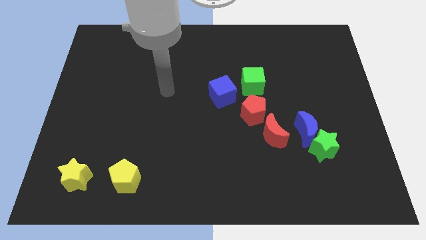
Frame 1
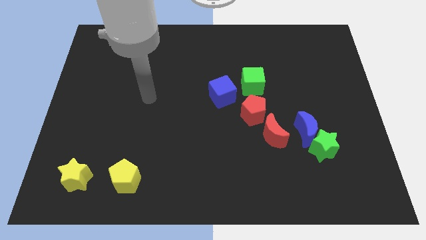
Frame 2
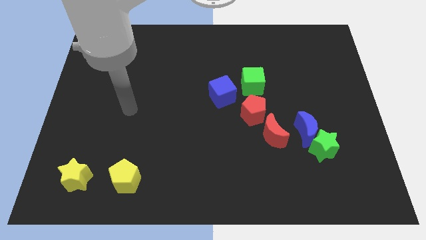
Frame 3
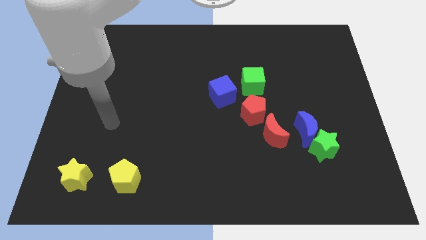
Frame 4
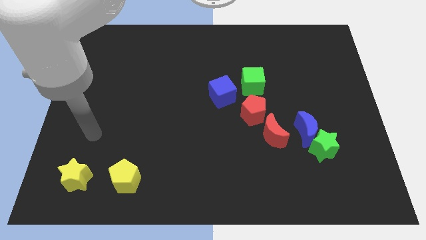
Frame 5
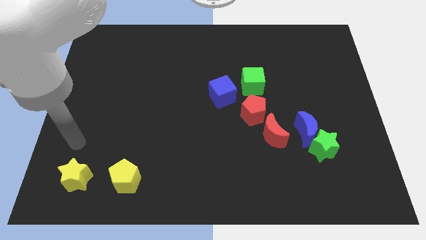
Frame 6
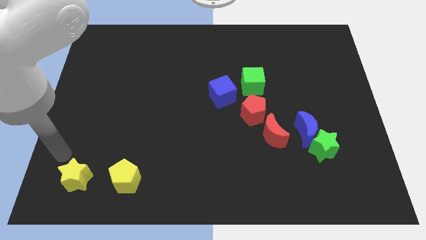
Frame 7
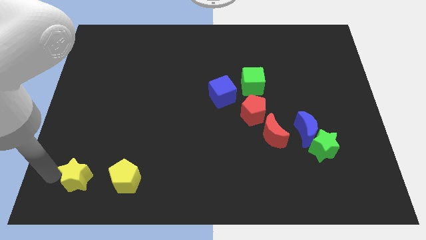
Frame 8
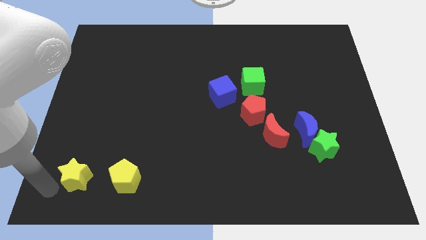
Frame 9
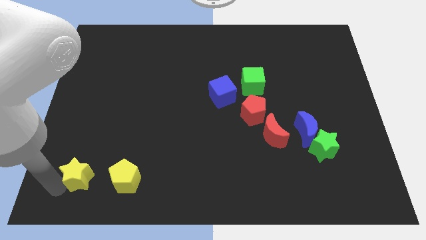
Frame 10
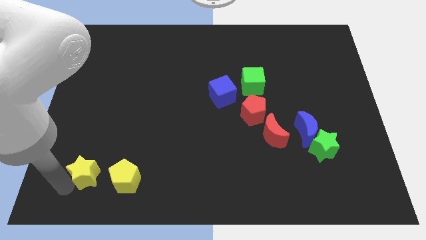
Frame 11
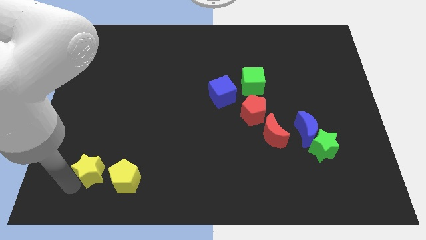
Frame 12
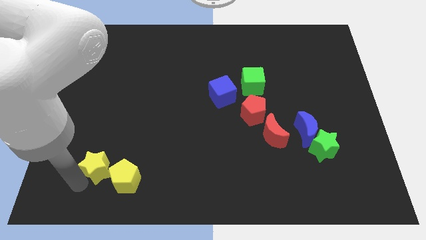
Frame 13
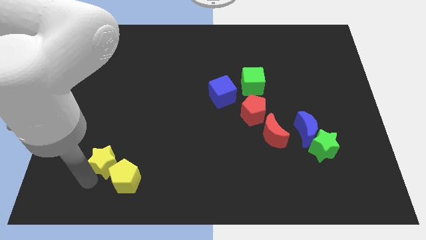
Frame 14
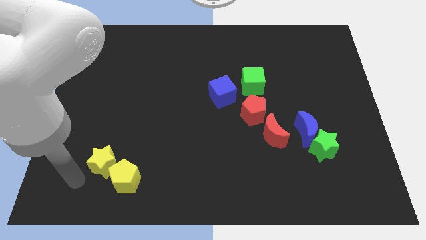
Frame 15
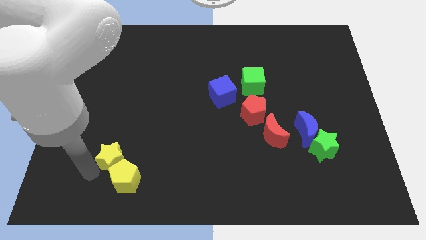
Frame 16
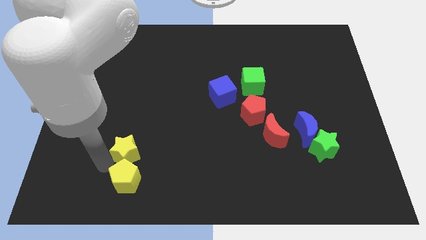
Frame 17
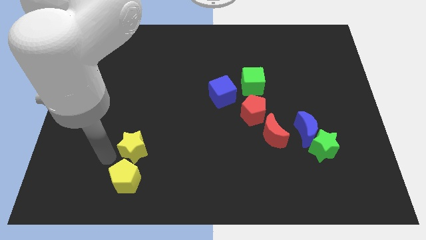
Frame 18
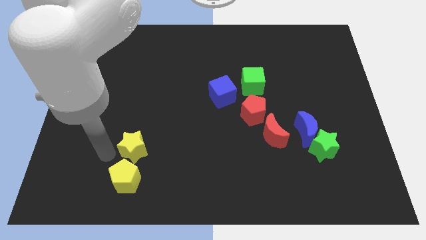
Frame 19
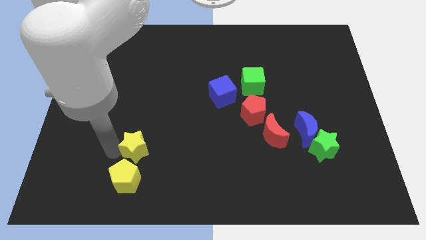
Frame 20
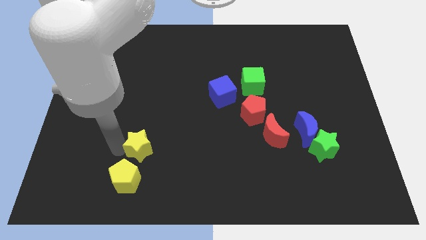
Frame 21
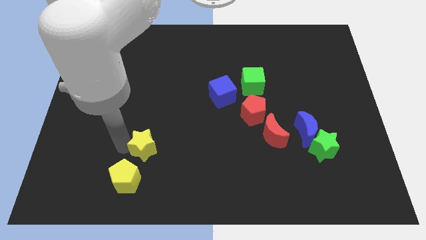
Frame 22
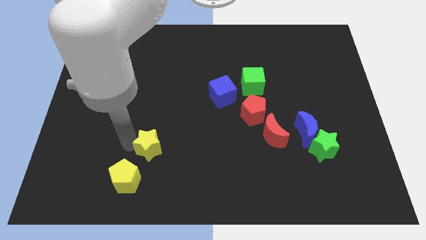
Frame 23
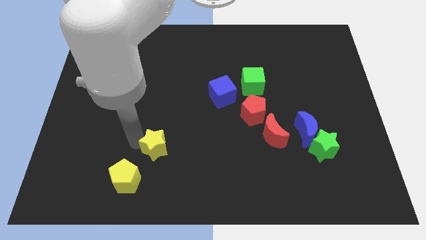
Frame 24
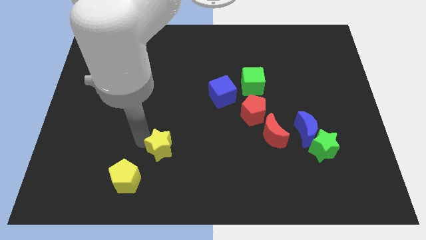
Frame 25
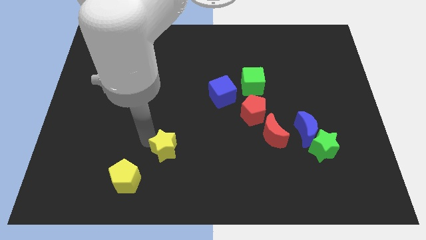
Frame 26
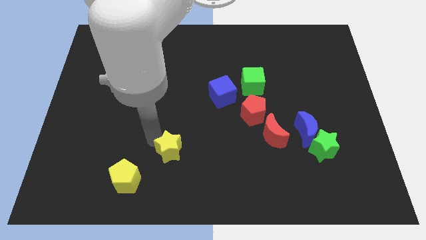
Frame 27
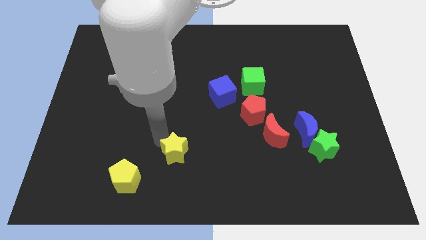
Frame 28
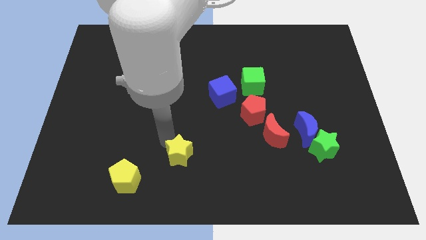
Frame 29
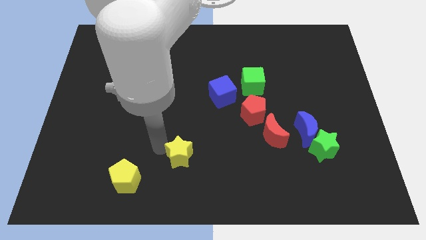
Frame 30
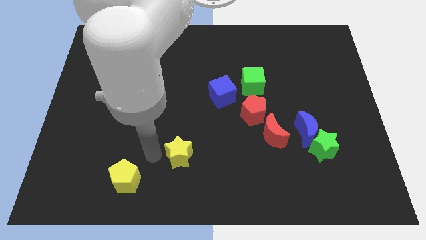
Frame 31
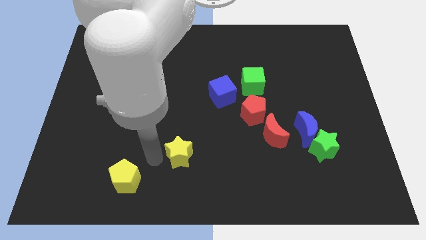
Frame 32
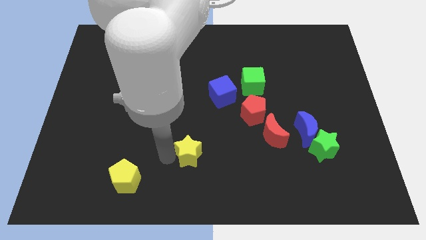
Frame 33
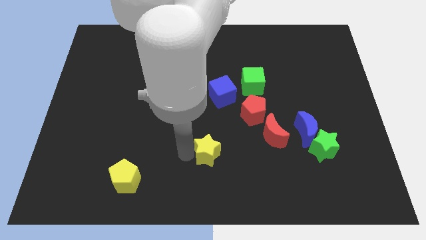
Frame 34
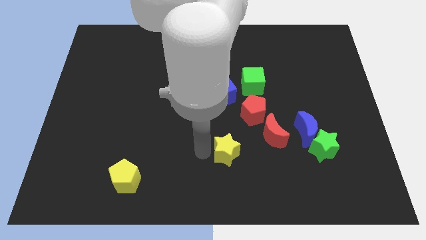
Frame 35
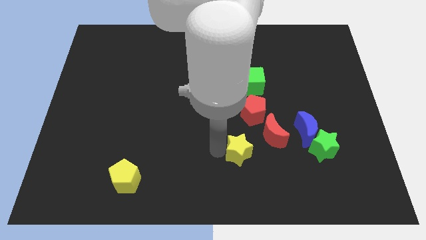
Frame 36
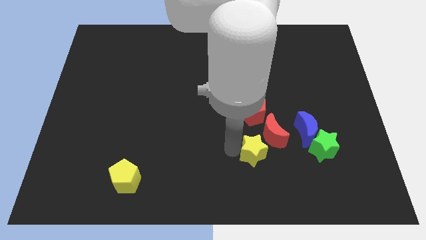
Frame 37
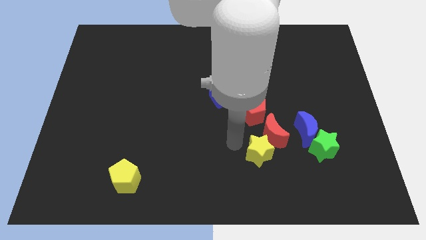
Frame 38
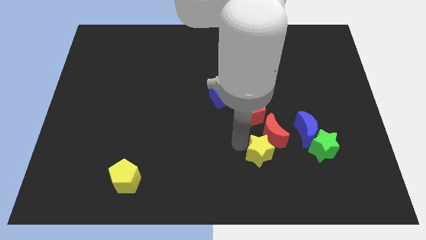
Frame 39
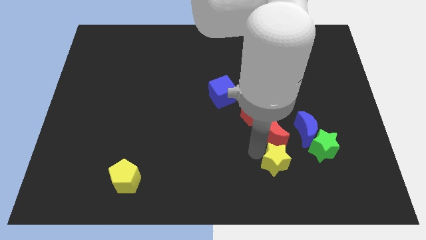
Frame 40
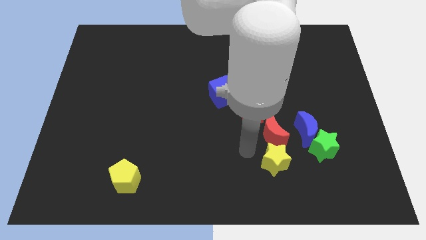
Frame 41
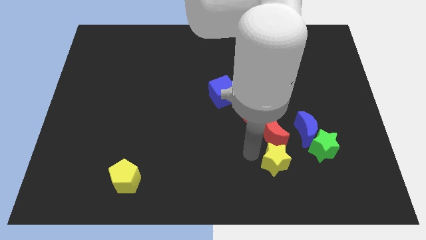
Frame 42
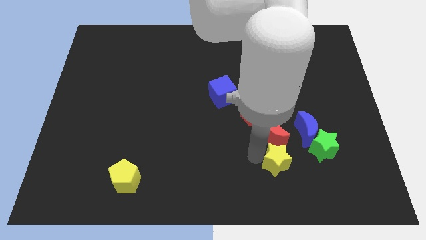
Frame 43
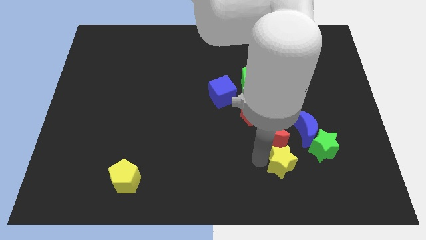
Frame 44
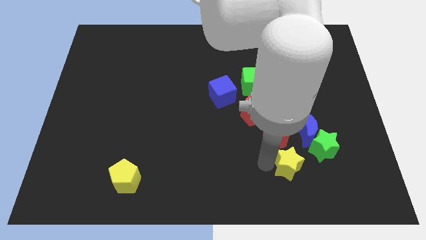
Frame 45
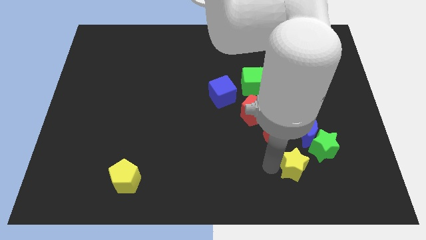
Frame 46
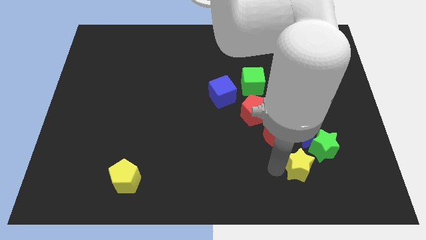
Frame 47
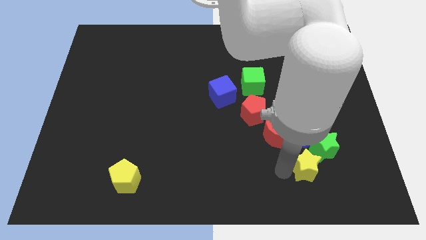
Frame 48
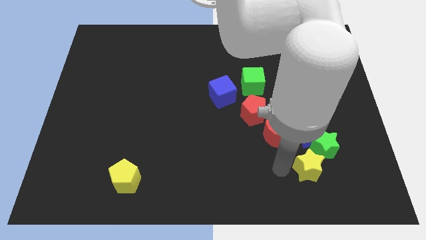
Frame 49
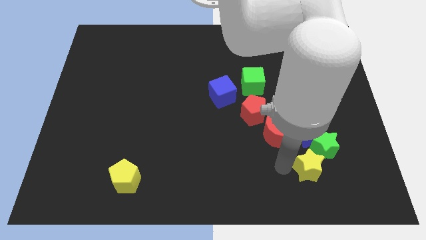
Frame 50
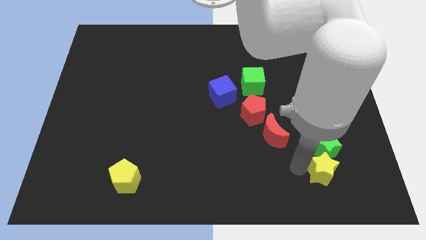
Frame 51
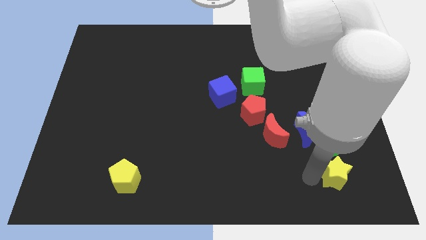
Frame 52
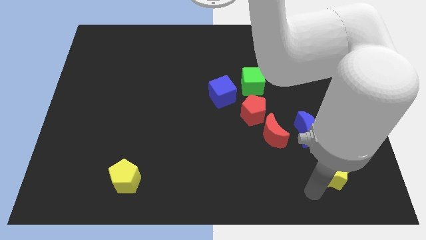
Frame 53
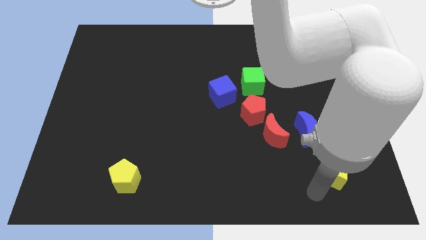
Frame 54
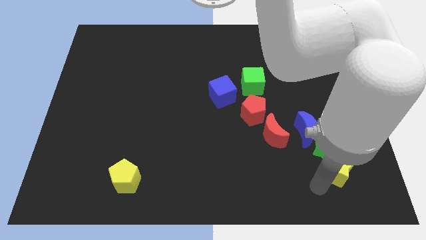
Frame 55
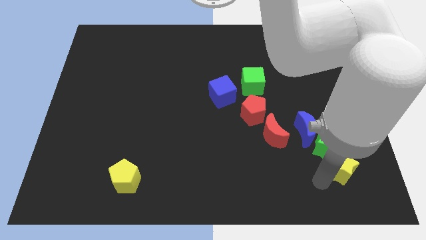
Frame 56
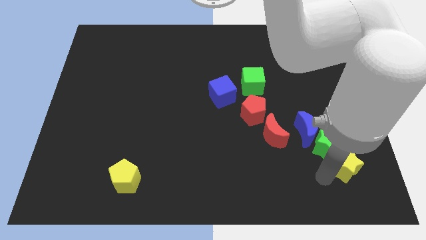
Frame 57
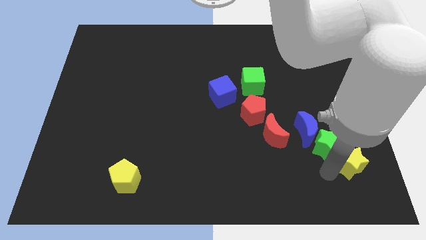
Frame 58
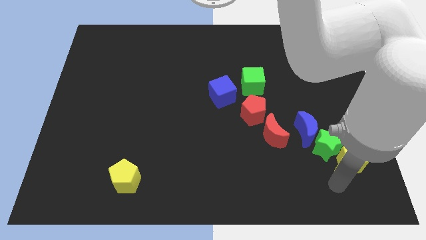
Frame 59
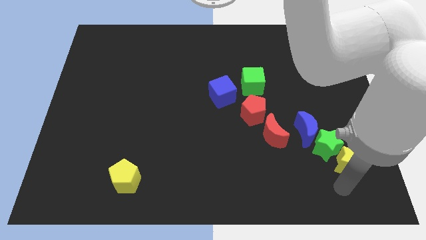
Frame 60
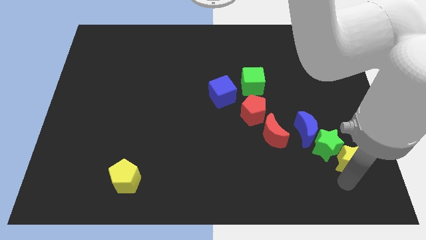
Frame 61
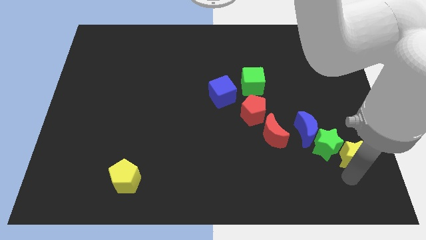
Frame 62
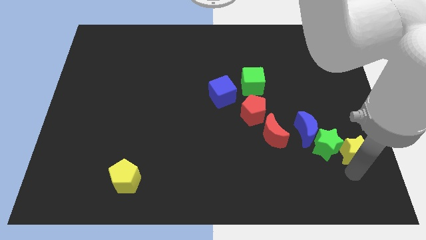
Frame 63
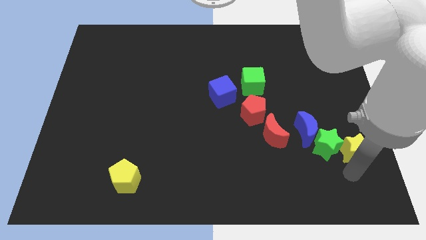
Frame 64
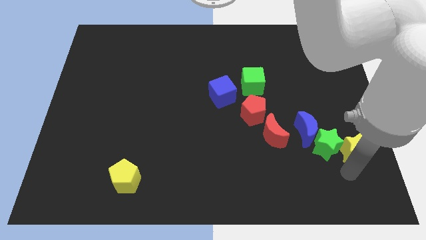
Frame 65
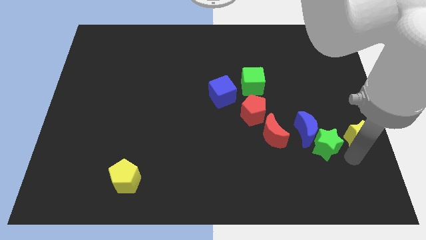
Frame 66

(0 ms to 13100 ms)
move the yellow star to the right side

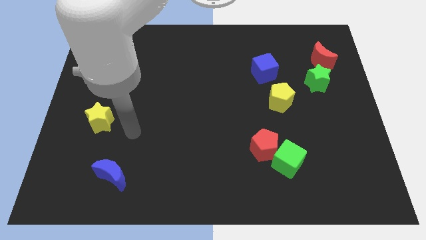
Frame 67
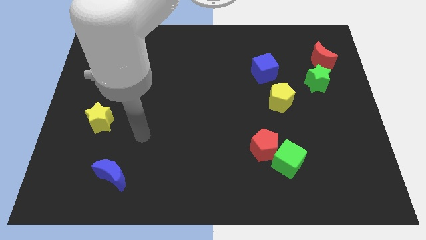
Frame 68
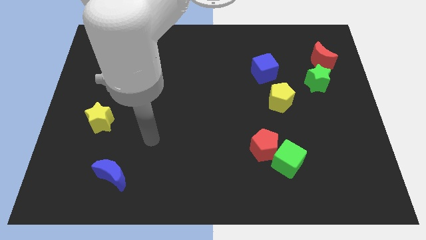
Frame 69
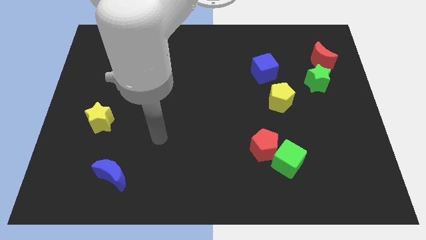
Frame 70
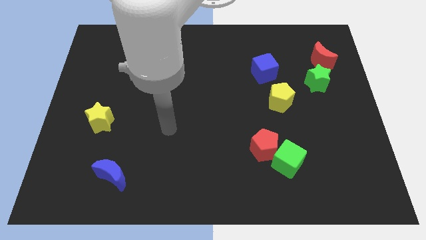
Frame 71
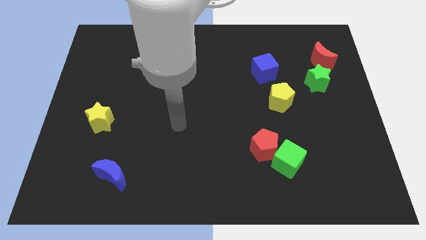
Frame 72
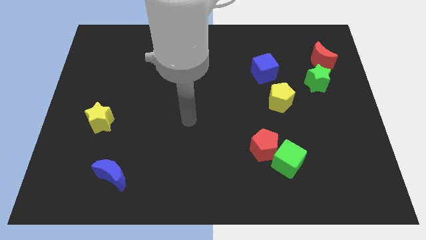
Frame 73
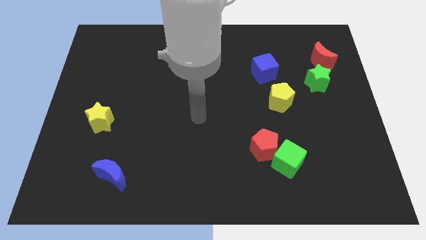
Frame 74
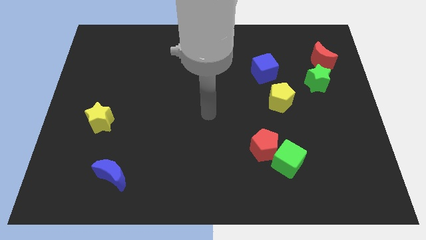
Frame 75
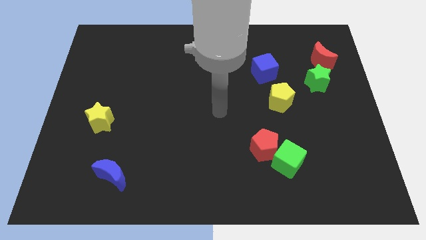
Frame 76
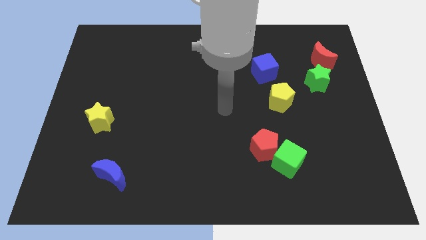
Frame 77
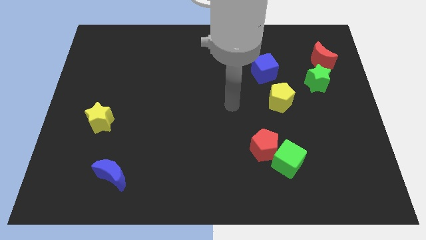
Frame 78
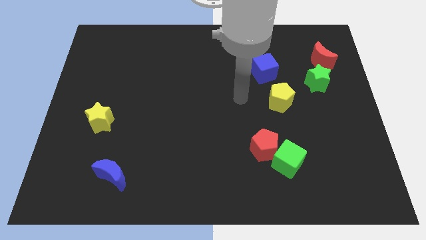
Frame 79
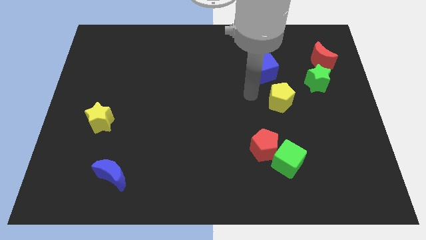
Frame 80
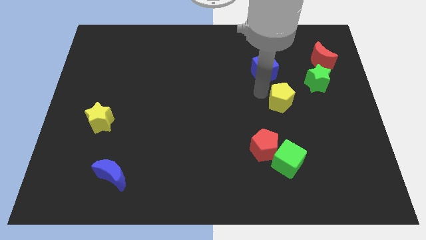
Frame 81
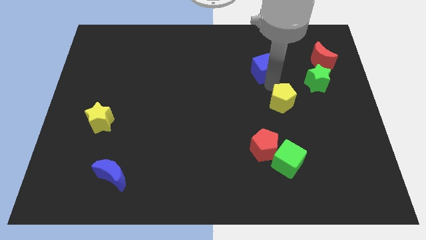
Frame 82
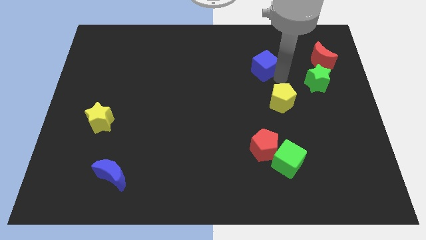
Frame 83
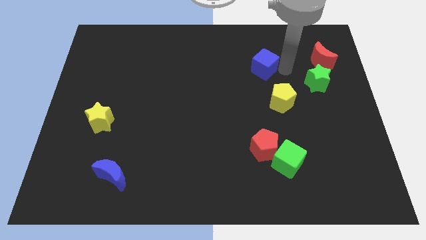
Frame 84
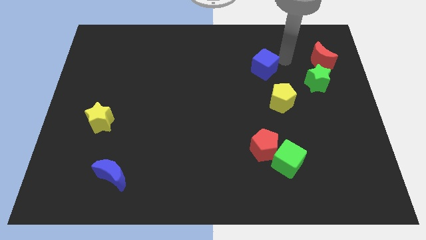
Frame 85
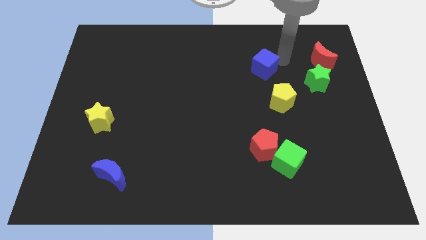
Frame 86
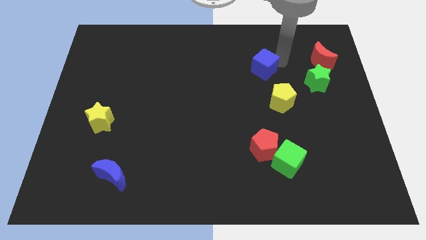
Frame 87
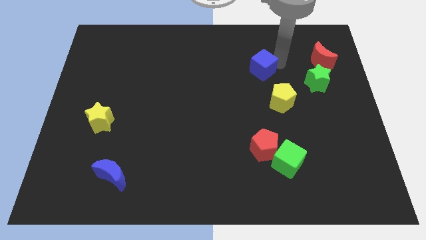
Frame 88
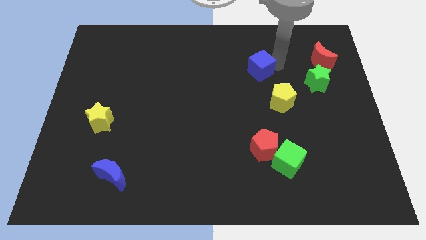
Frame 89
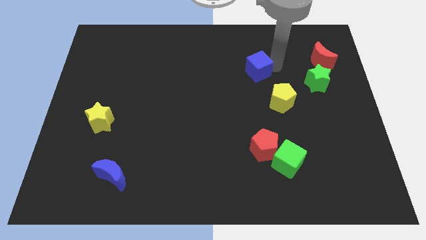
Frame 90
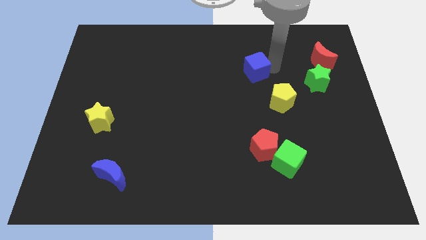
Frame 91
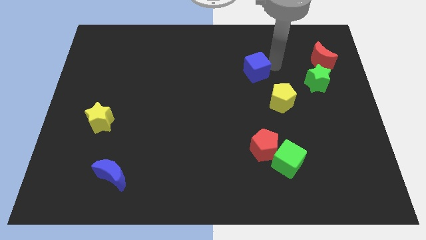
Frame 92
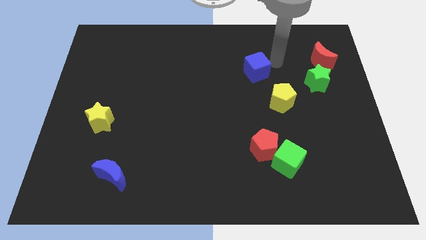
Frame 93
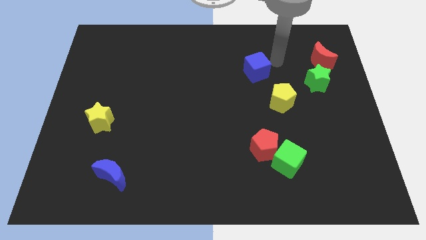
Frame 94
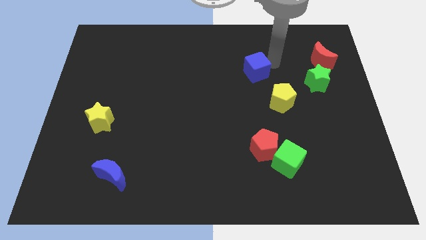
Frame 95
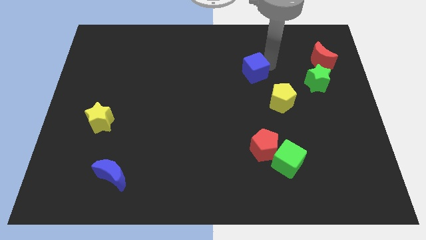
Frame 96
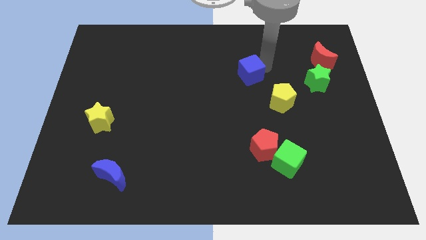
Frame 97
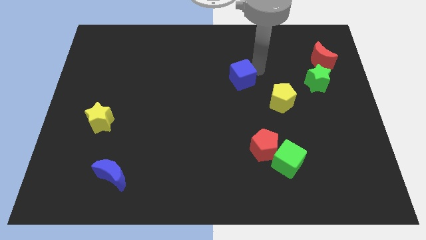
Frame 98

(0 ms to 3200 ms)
slide the blue cube to the center
